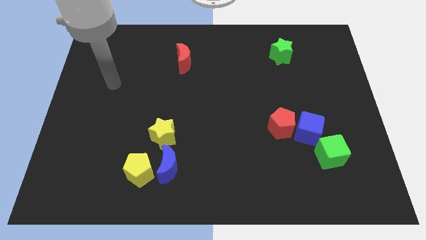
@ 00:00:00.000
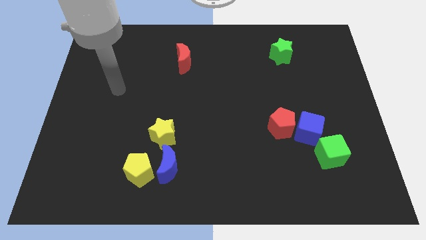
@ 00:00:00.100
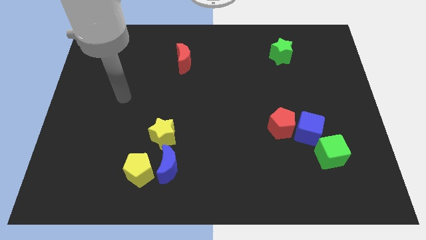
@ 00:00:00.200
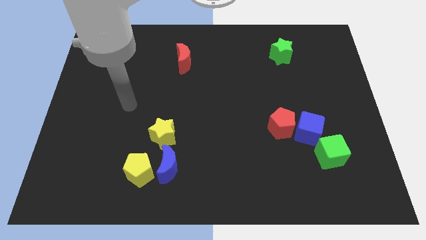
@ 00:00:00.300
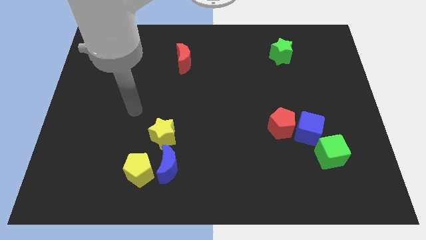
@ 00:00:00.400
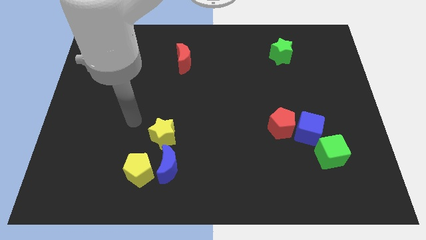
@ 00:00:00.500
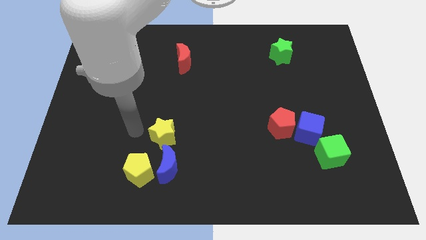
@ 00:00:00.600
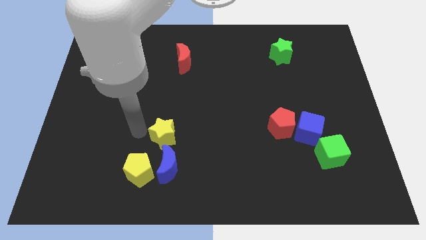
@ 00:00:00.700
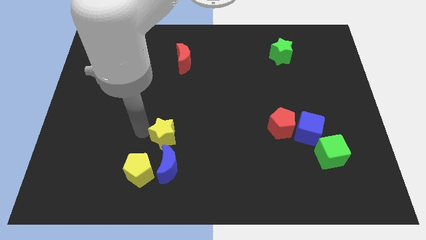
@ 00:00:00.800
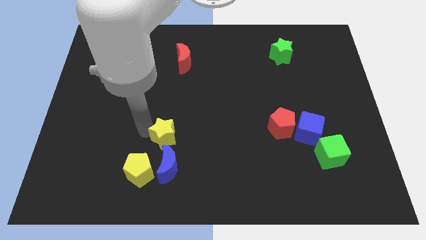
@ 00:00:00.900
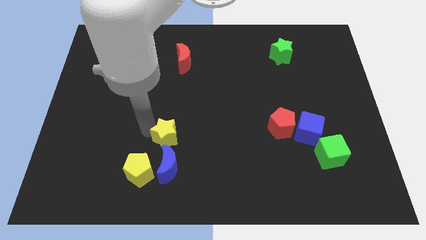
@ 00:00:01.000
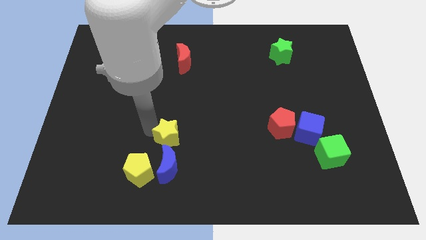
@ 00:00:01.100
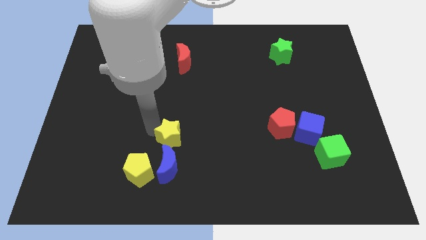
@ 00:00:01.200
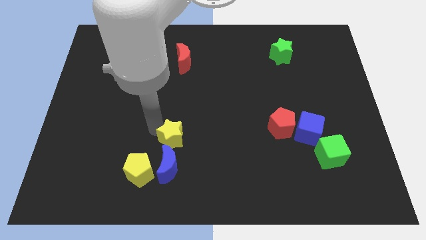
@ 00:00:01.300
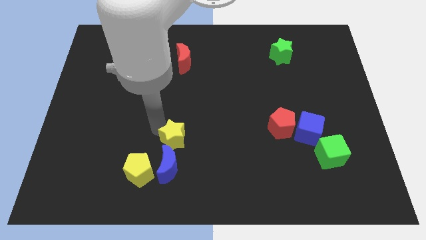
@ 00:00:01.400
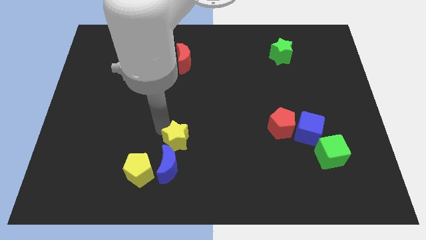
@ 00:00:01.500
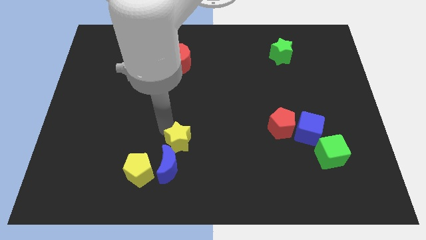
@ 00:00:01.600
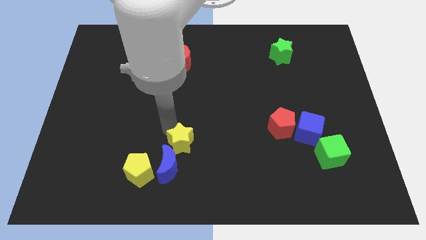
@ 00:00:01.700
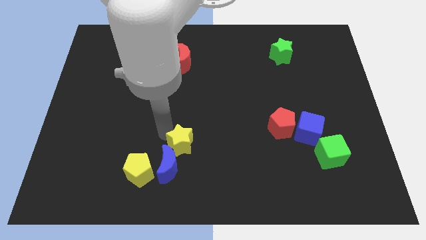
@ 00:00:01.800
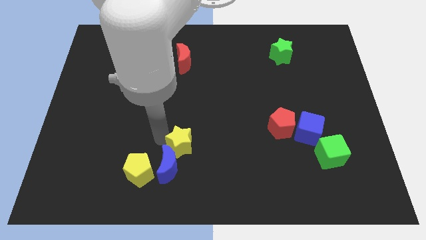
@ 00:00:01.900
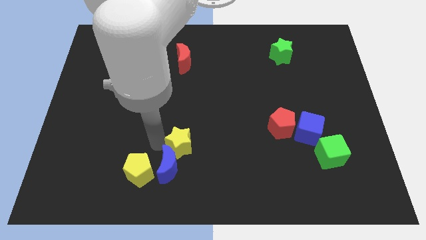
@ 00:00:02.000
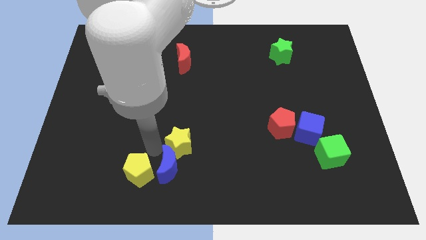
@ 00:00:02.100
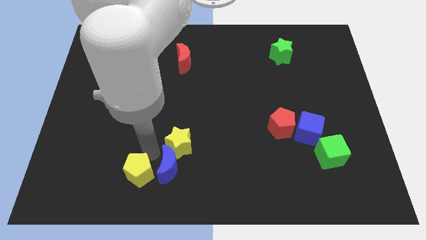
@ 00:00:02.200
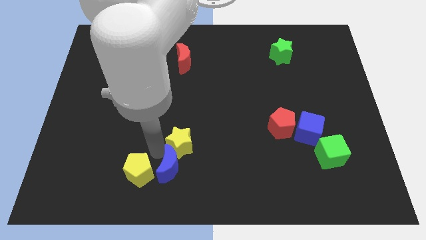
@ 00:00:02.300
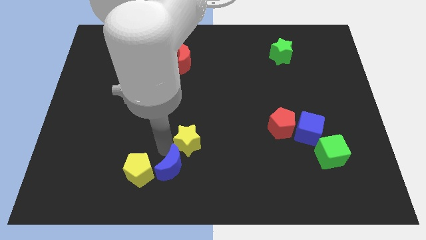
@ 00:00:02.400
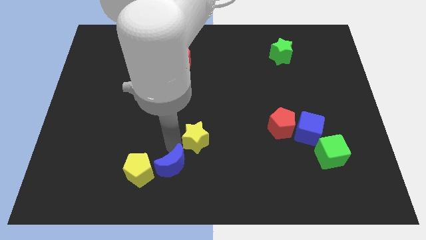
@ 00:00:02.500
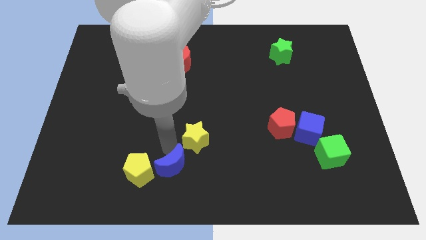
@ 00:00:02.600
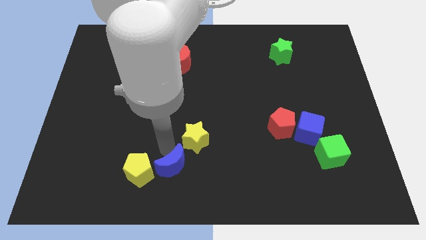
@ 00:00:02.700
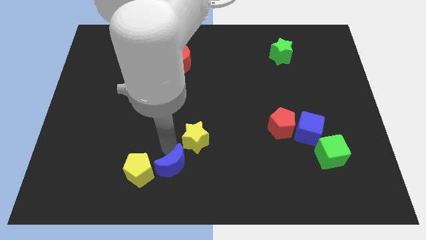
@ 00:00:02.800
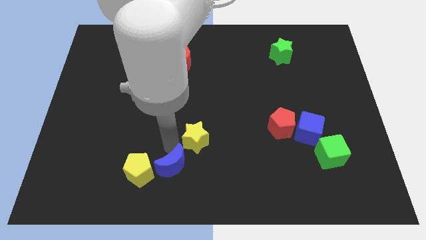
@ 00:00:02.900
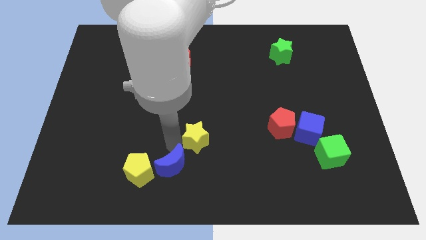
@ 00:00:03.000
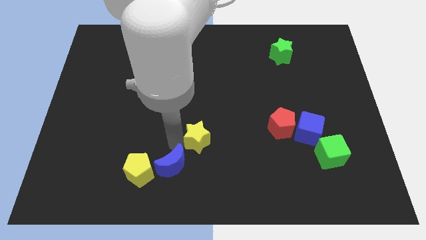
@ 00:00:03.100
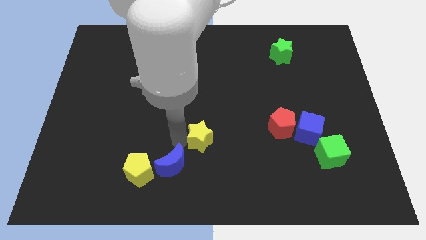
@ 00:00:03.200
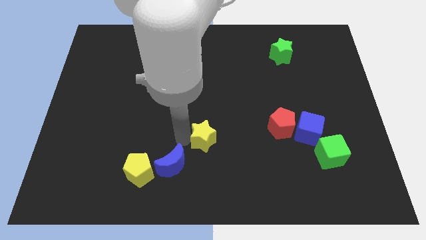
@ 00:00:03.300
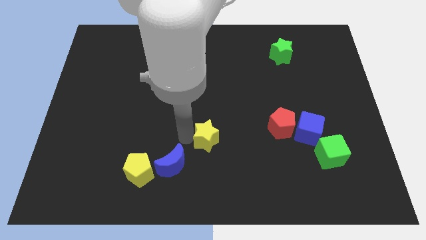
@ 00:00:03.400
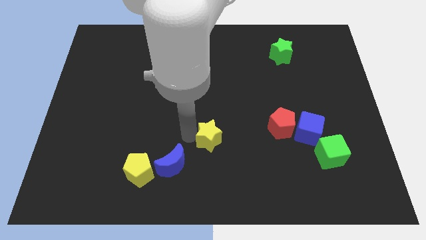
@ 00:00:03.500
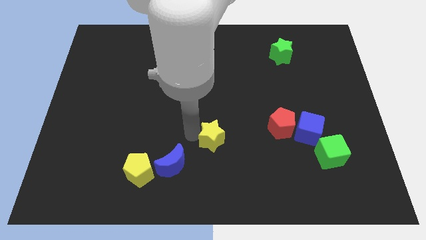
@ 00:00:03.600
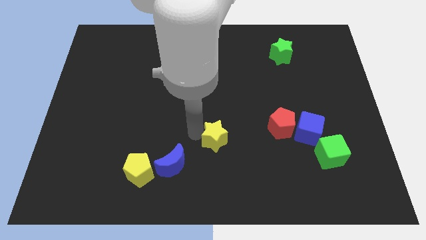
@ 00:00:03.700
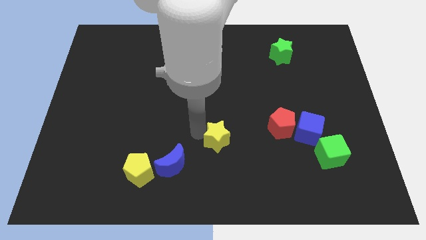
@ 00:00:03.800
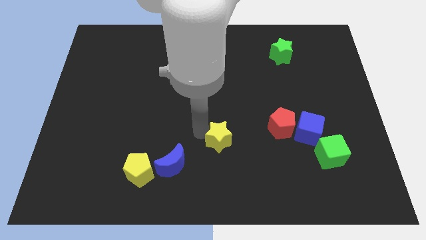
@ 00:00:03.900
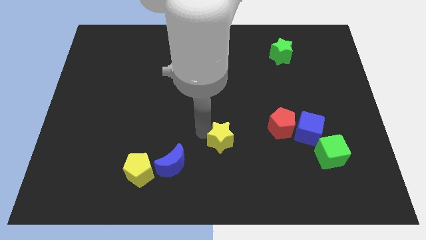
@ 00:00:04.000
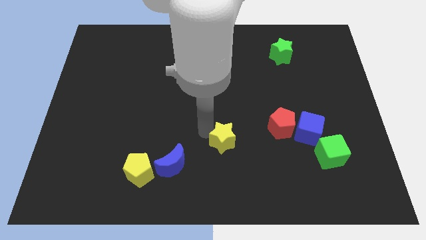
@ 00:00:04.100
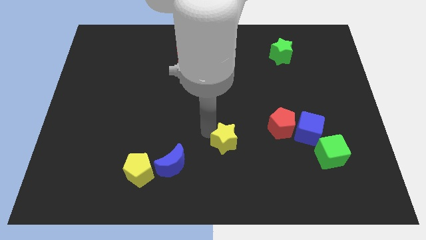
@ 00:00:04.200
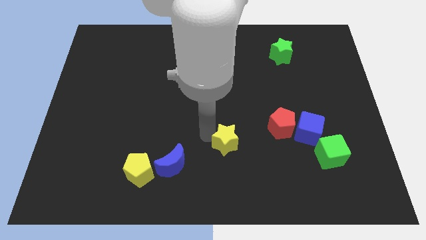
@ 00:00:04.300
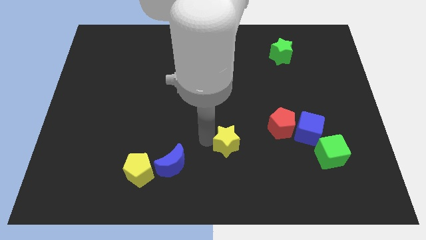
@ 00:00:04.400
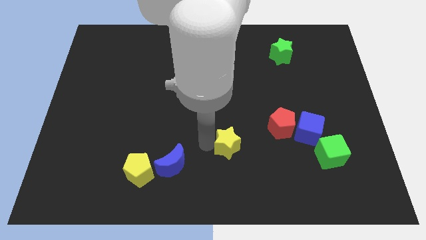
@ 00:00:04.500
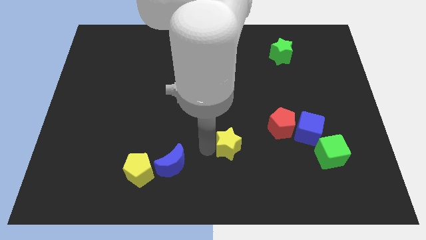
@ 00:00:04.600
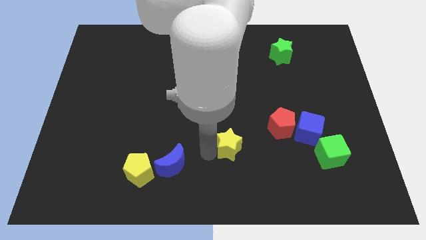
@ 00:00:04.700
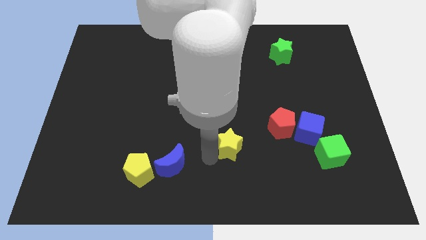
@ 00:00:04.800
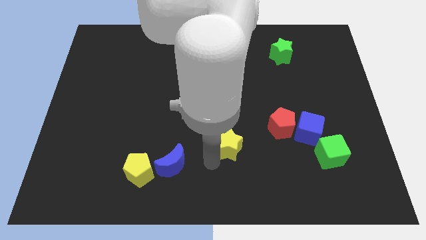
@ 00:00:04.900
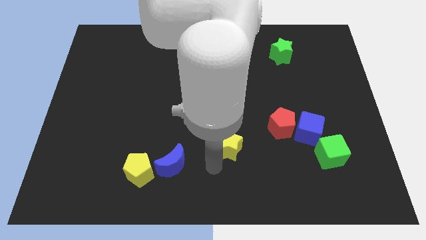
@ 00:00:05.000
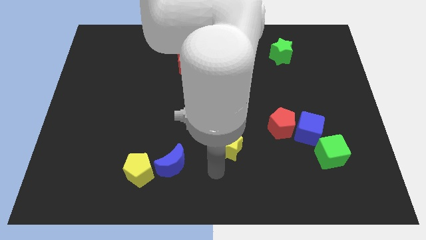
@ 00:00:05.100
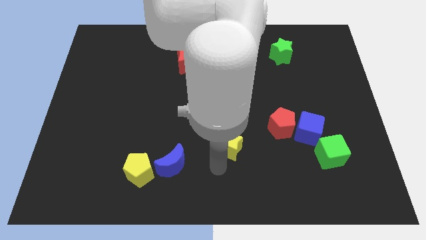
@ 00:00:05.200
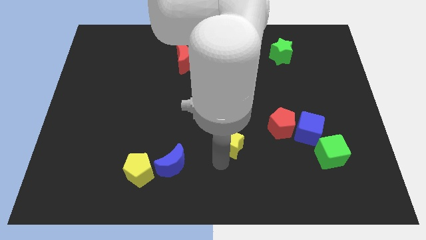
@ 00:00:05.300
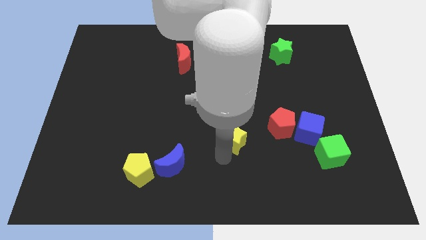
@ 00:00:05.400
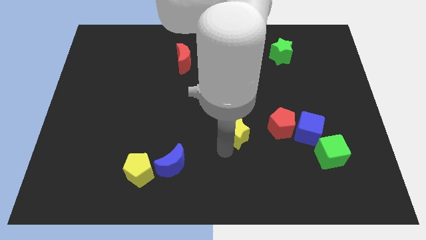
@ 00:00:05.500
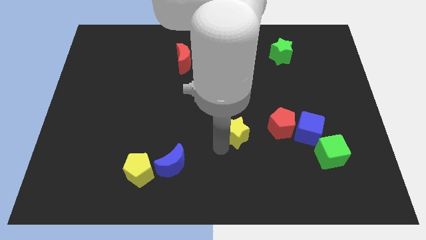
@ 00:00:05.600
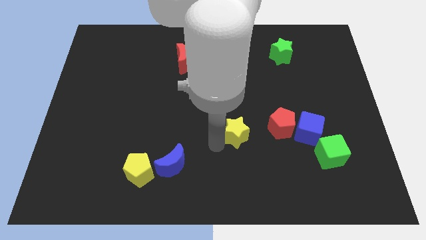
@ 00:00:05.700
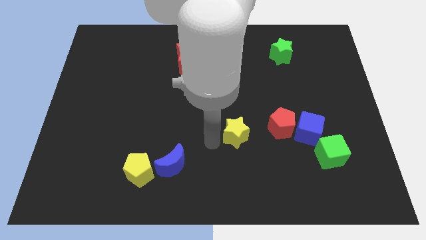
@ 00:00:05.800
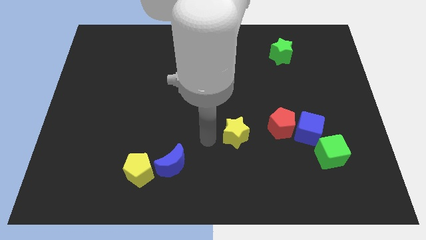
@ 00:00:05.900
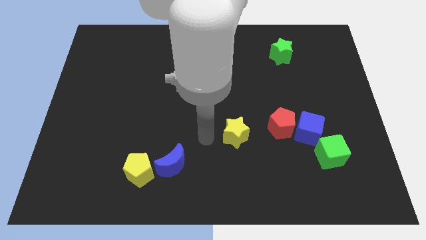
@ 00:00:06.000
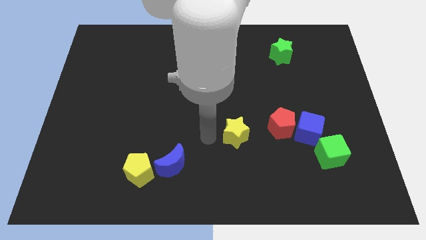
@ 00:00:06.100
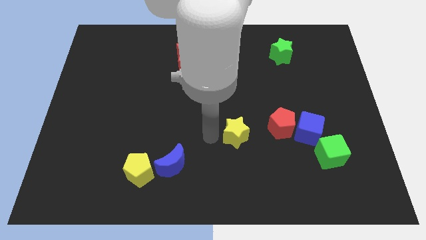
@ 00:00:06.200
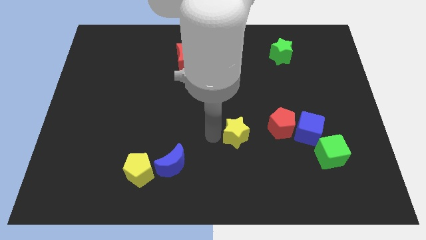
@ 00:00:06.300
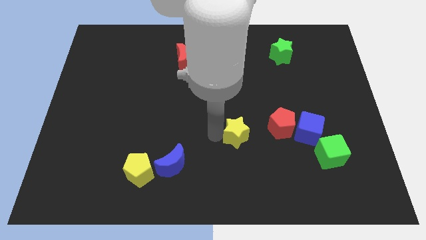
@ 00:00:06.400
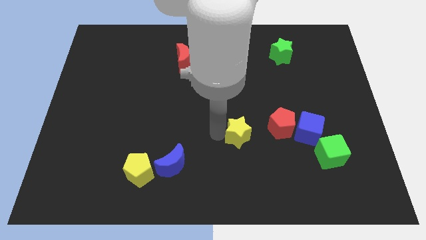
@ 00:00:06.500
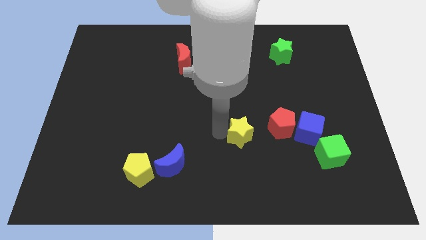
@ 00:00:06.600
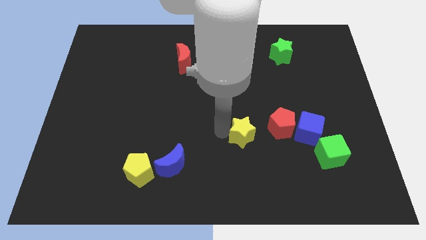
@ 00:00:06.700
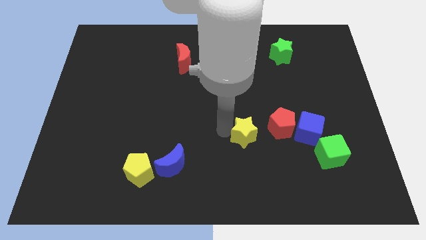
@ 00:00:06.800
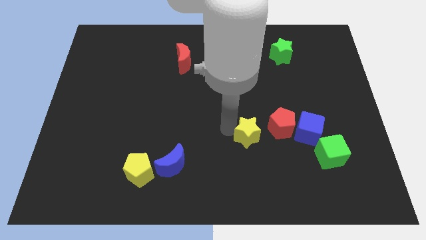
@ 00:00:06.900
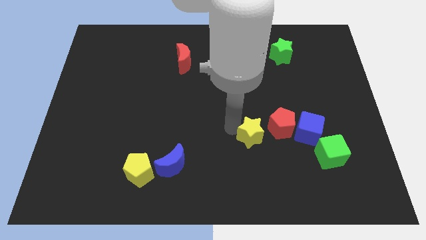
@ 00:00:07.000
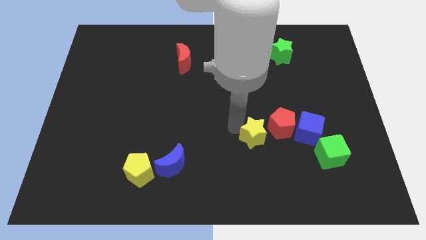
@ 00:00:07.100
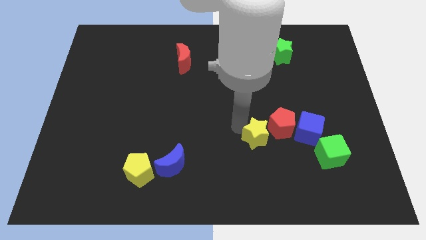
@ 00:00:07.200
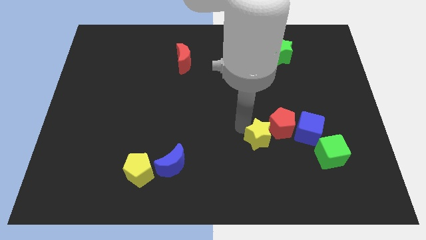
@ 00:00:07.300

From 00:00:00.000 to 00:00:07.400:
push the yellow star next to the red pentagon
